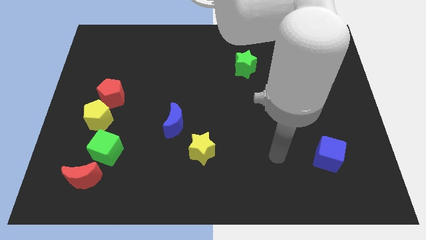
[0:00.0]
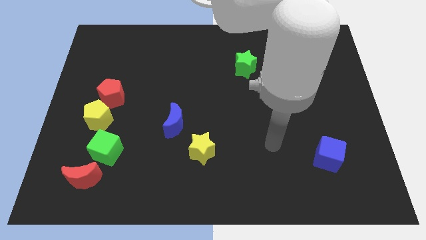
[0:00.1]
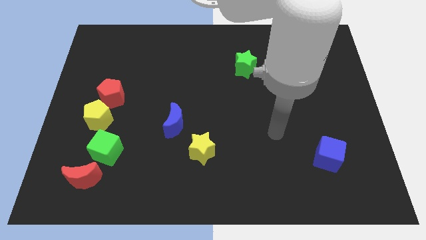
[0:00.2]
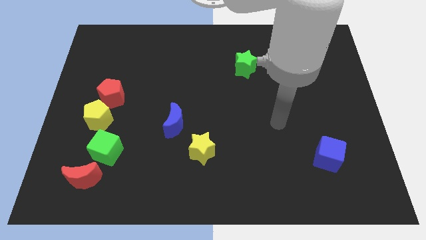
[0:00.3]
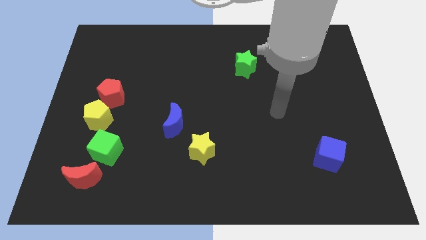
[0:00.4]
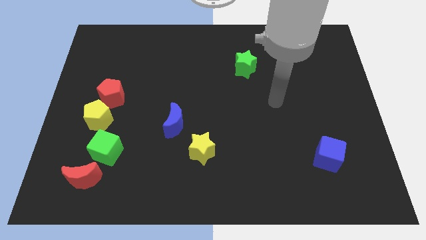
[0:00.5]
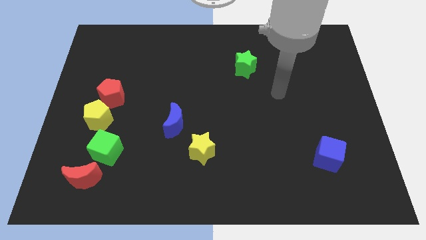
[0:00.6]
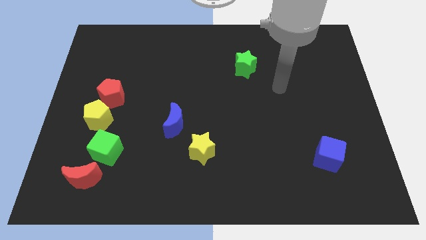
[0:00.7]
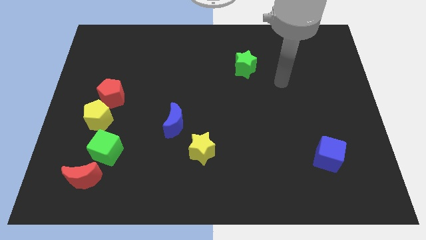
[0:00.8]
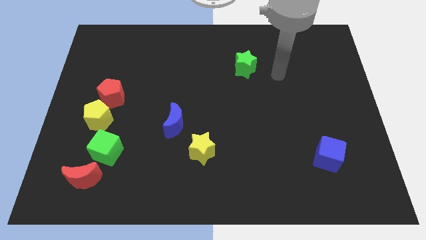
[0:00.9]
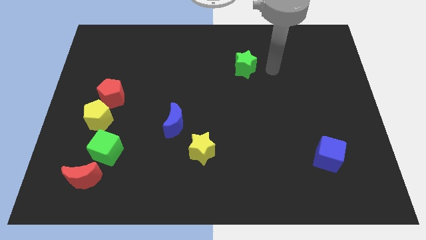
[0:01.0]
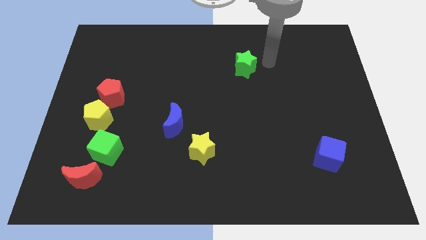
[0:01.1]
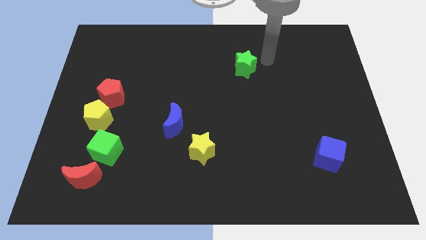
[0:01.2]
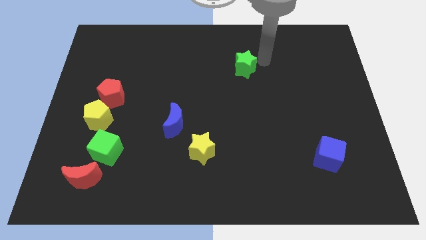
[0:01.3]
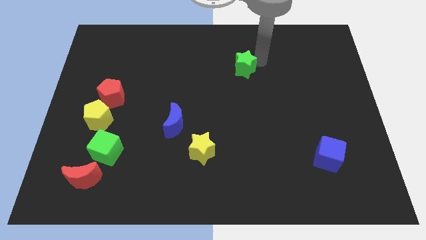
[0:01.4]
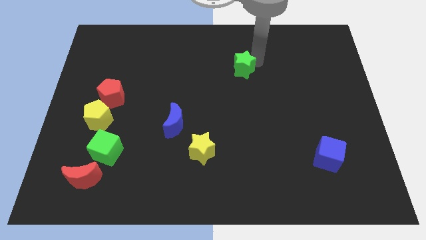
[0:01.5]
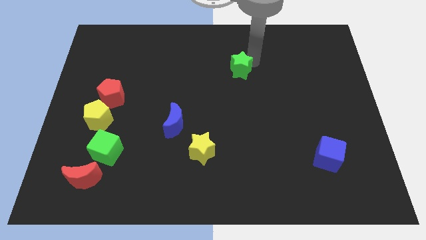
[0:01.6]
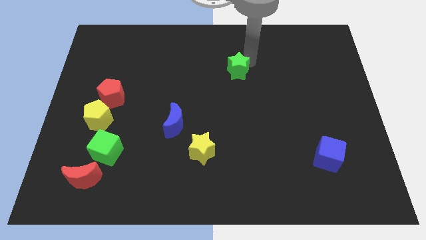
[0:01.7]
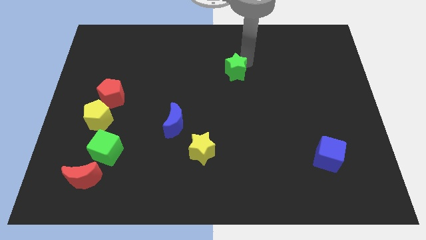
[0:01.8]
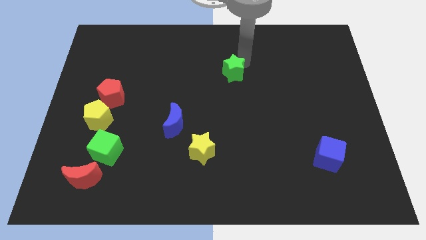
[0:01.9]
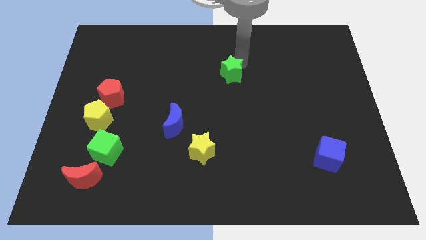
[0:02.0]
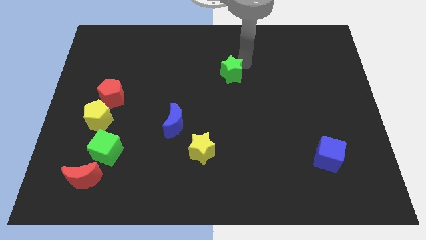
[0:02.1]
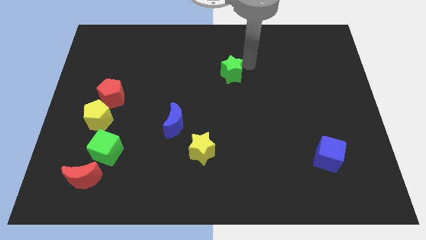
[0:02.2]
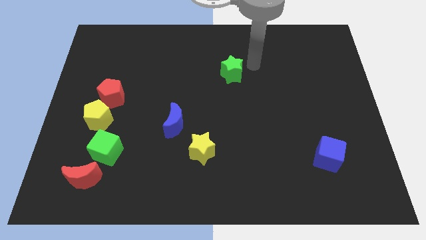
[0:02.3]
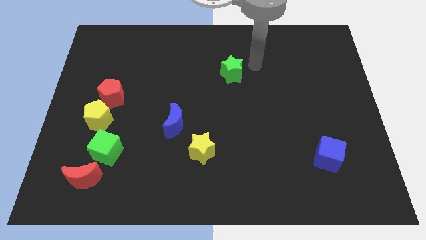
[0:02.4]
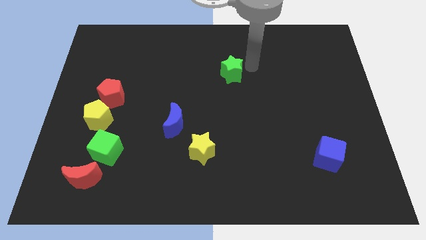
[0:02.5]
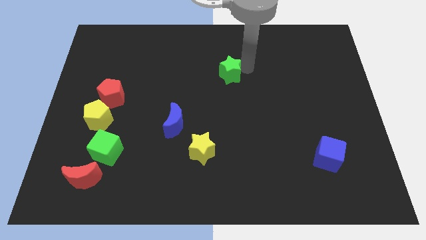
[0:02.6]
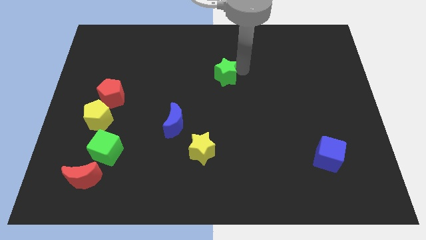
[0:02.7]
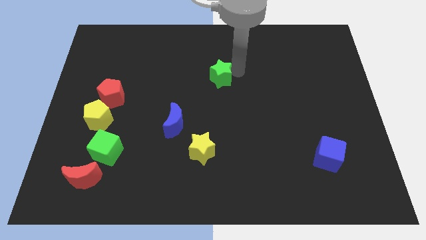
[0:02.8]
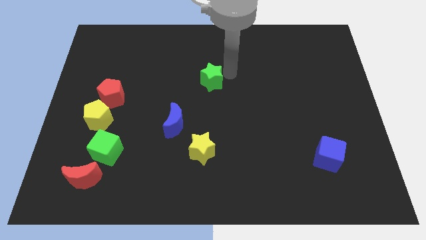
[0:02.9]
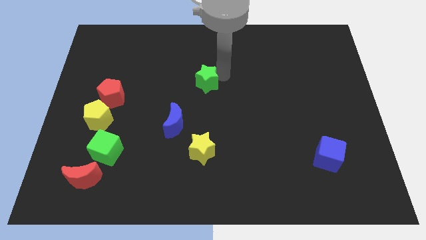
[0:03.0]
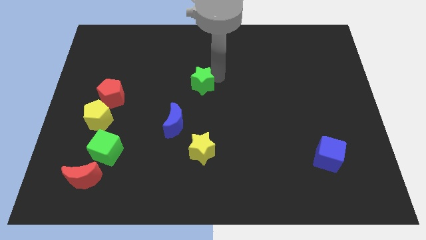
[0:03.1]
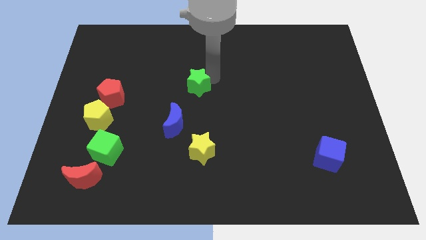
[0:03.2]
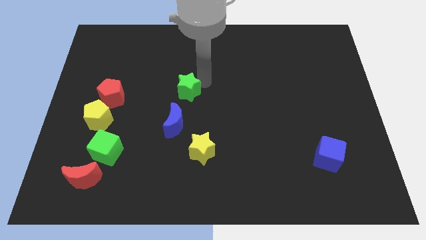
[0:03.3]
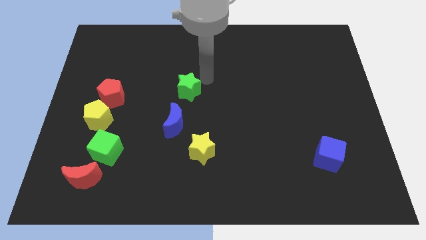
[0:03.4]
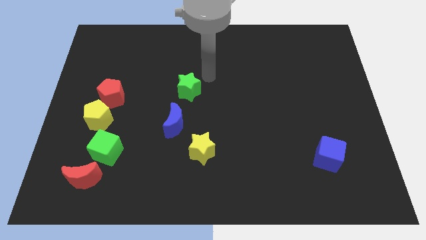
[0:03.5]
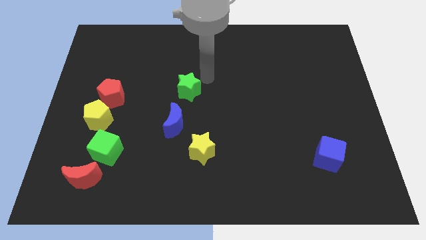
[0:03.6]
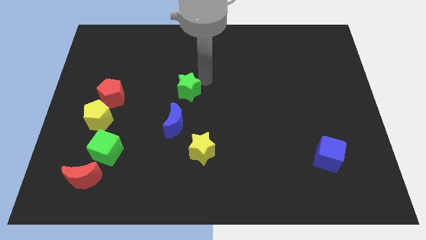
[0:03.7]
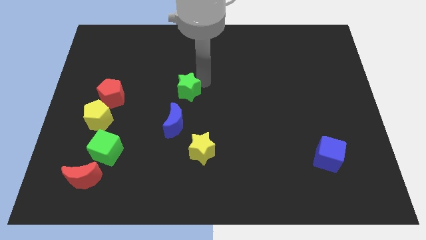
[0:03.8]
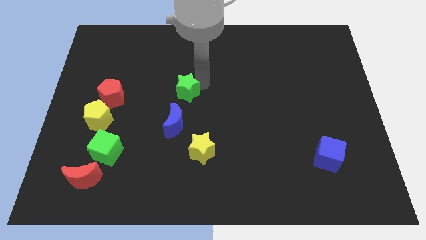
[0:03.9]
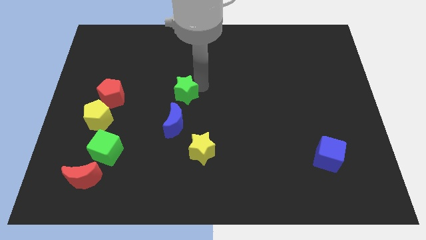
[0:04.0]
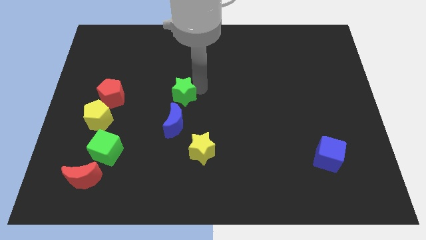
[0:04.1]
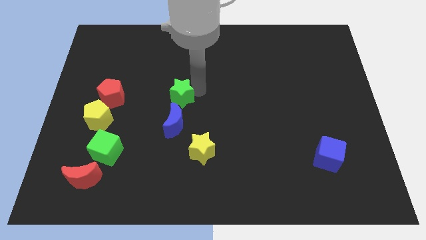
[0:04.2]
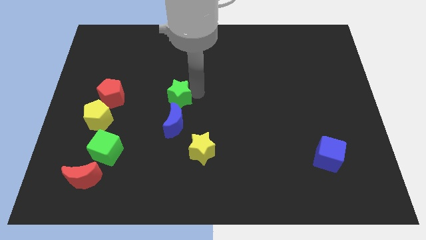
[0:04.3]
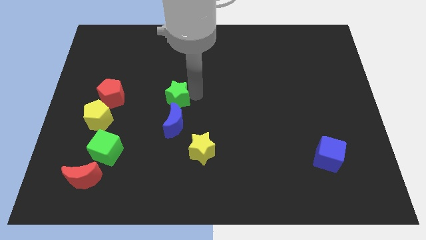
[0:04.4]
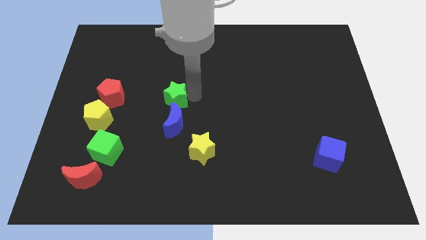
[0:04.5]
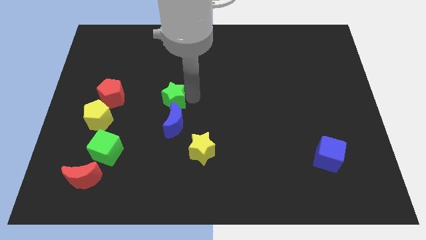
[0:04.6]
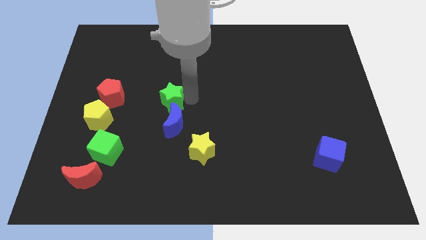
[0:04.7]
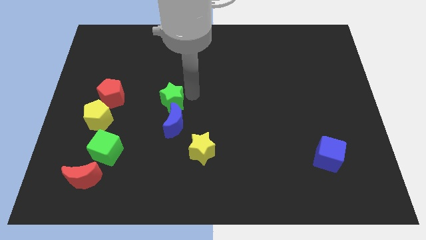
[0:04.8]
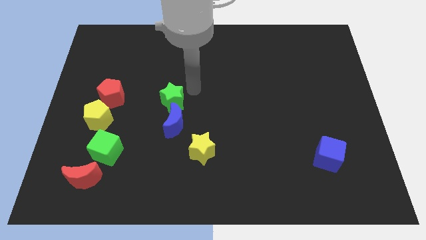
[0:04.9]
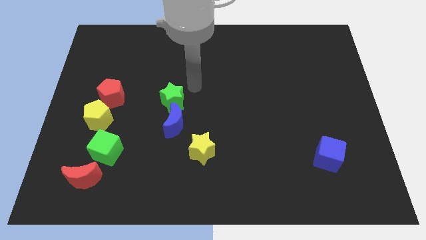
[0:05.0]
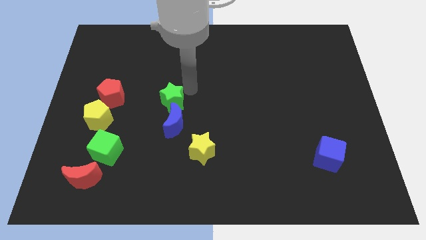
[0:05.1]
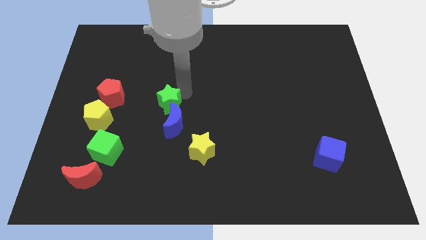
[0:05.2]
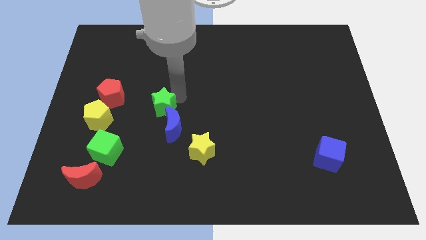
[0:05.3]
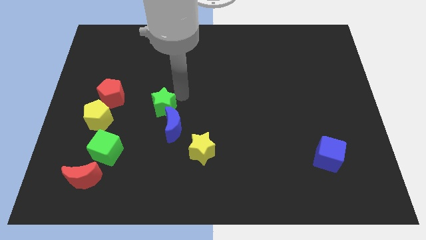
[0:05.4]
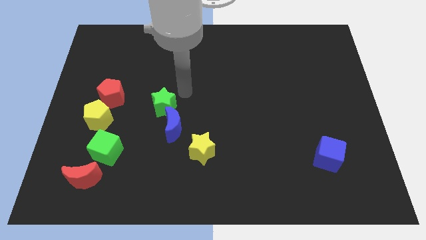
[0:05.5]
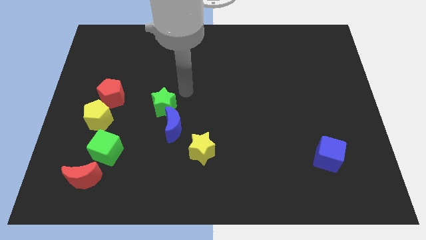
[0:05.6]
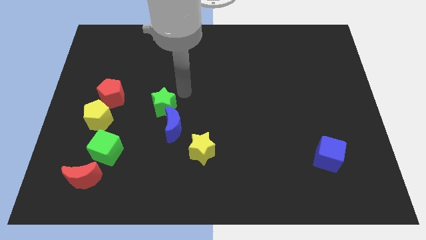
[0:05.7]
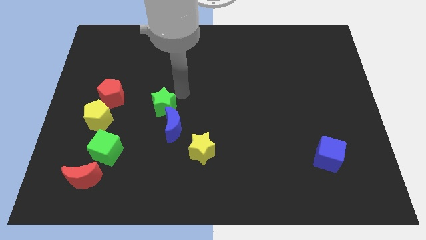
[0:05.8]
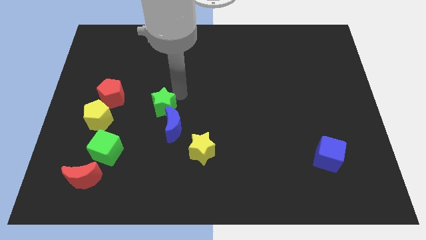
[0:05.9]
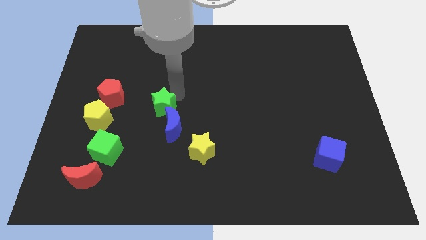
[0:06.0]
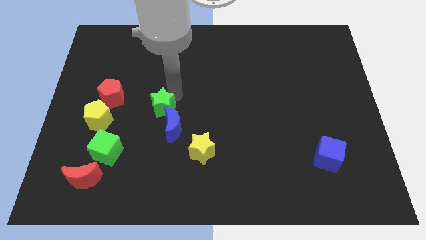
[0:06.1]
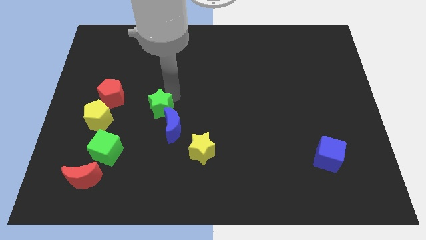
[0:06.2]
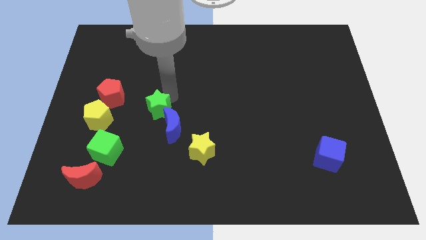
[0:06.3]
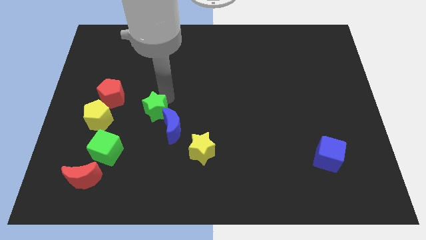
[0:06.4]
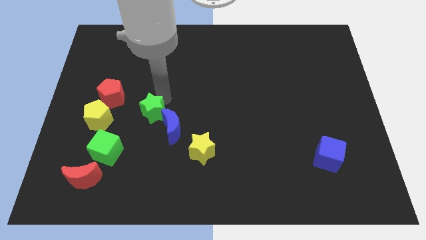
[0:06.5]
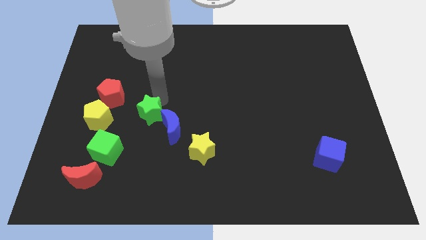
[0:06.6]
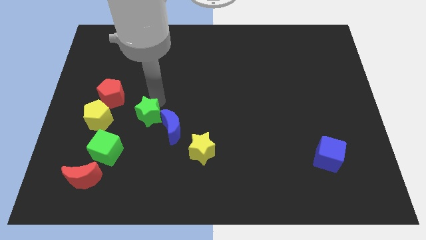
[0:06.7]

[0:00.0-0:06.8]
move the green star to the top right of the green cube
